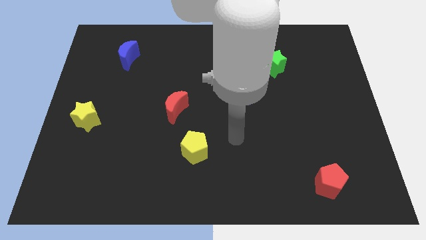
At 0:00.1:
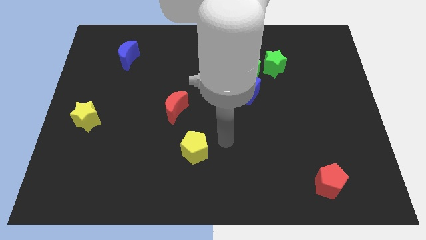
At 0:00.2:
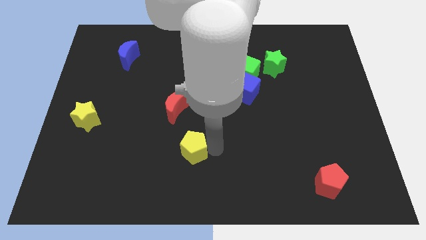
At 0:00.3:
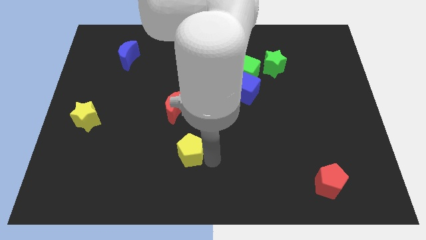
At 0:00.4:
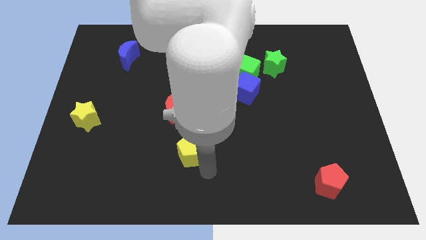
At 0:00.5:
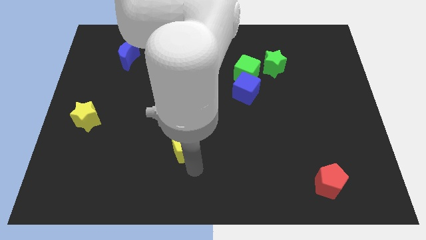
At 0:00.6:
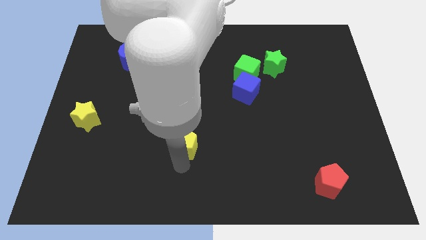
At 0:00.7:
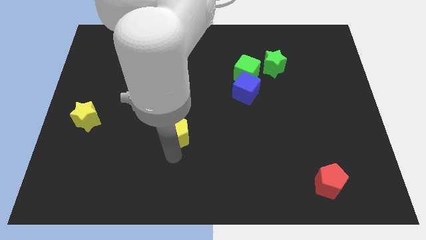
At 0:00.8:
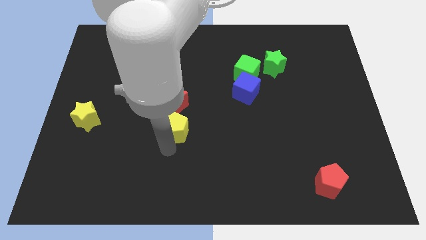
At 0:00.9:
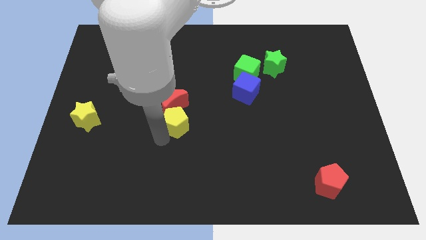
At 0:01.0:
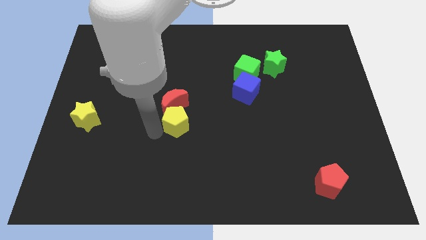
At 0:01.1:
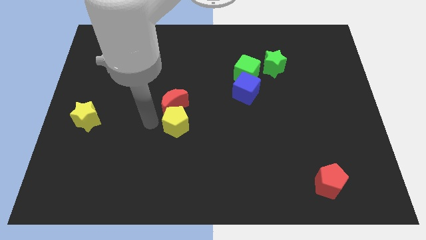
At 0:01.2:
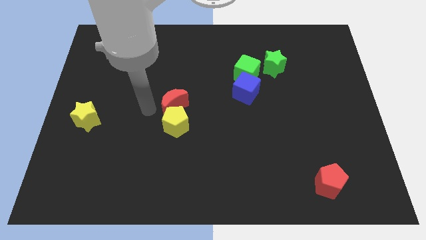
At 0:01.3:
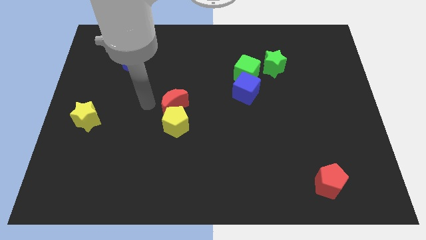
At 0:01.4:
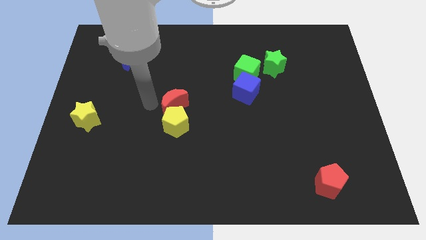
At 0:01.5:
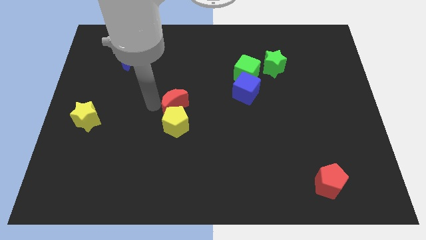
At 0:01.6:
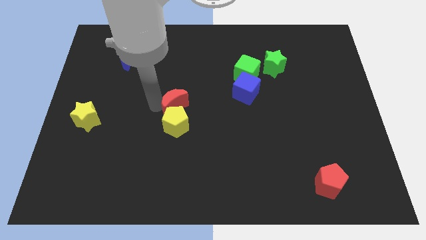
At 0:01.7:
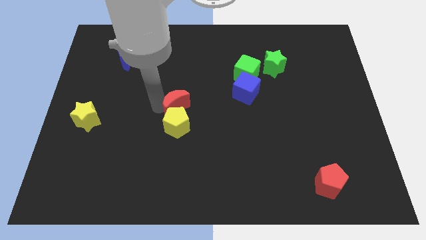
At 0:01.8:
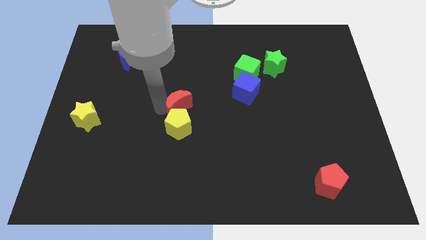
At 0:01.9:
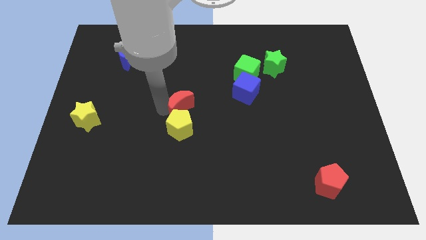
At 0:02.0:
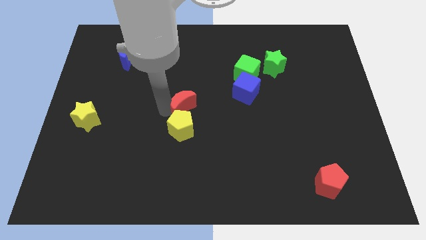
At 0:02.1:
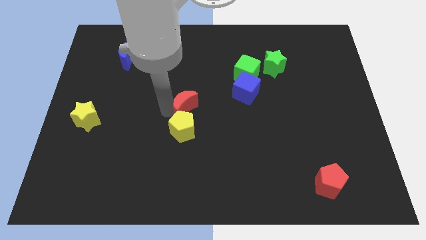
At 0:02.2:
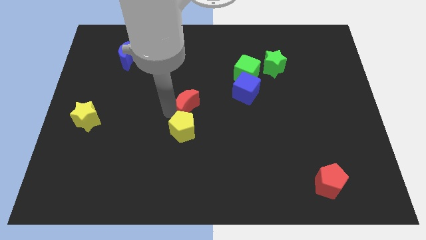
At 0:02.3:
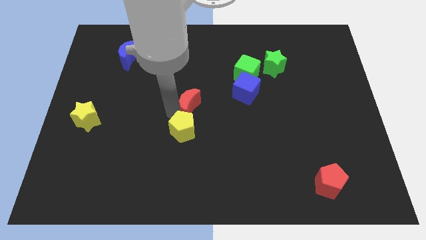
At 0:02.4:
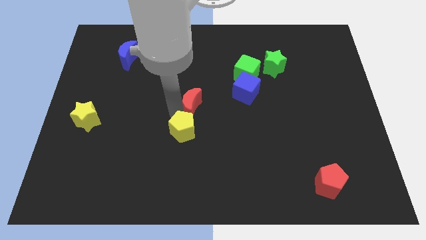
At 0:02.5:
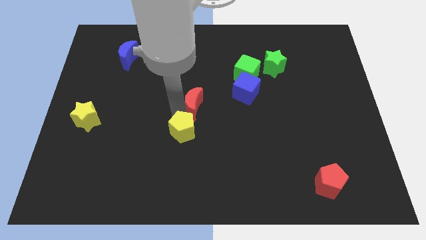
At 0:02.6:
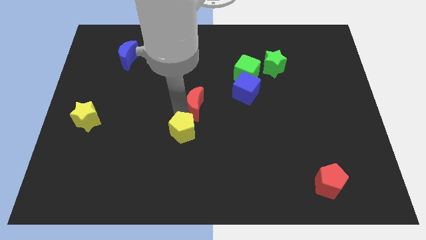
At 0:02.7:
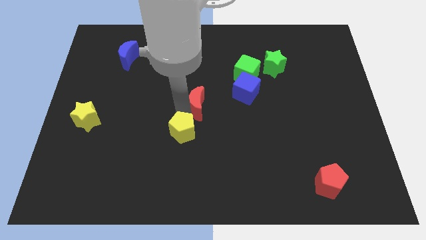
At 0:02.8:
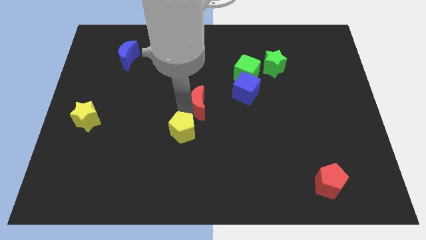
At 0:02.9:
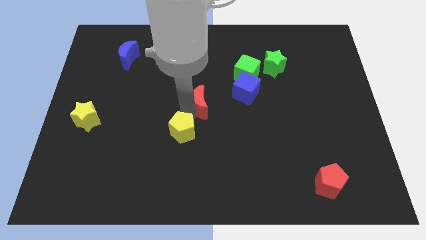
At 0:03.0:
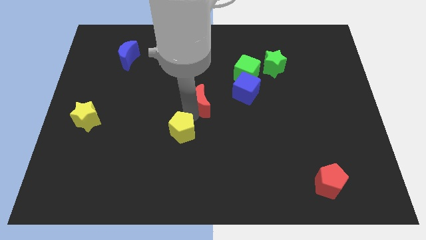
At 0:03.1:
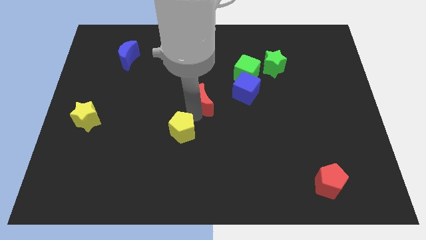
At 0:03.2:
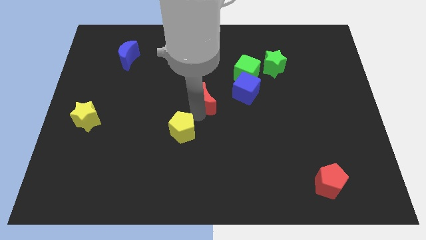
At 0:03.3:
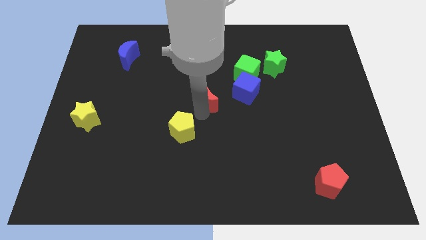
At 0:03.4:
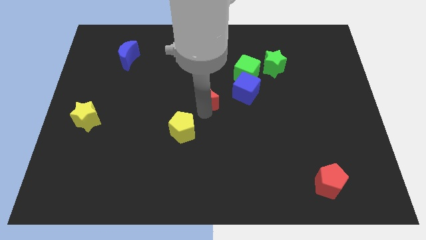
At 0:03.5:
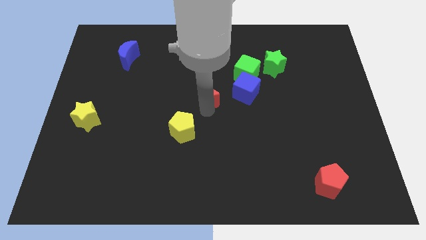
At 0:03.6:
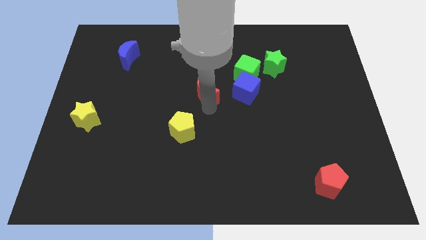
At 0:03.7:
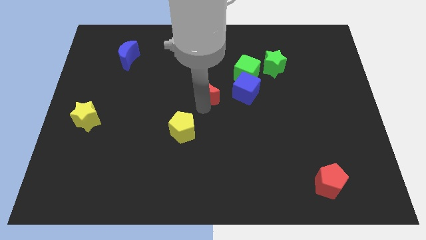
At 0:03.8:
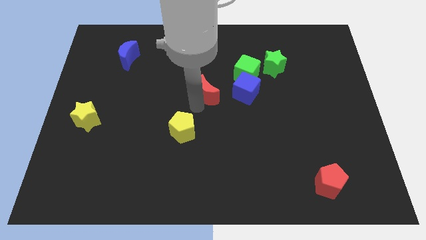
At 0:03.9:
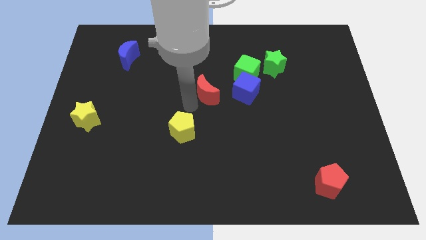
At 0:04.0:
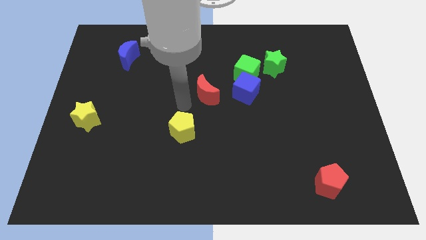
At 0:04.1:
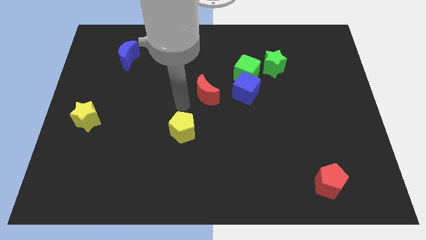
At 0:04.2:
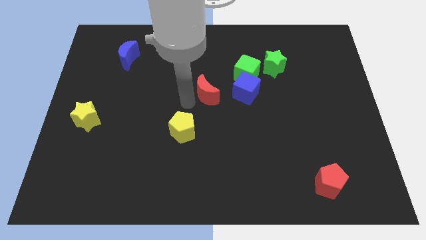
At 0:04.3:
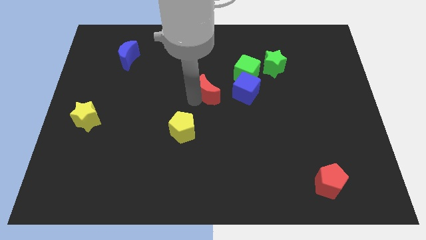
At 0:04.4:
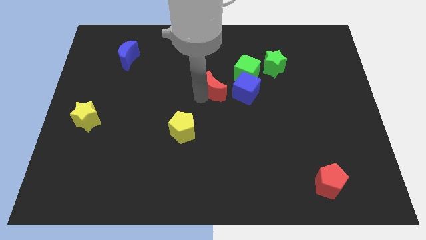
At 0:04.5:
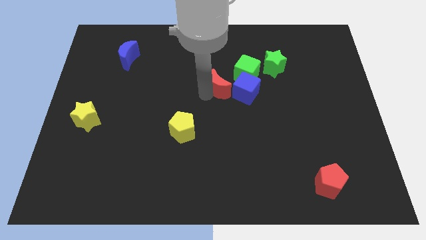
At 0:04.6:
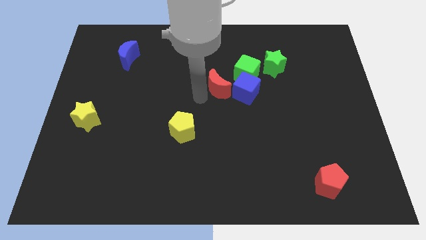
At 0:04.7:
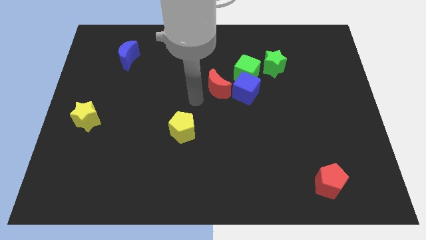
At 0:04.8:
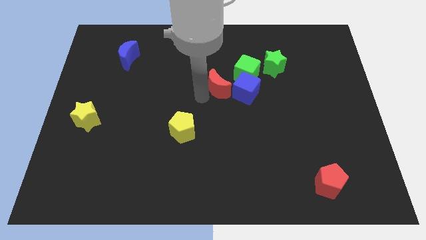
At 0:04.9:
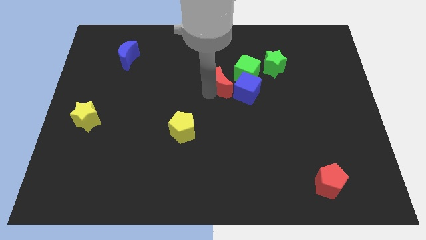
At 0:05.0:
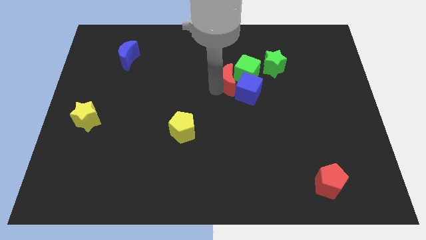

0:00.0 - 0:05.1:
put the red moon towards the green cube

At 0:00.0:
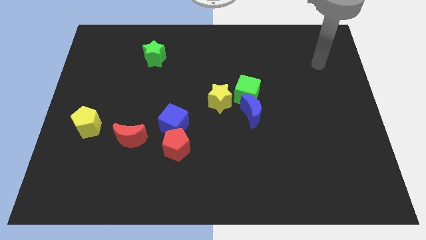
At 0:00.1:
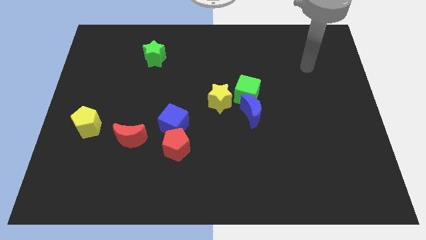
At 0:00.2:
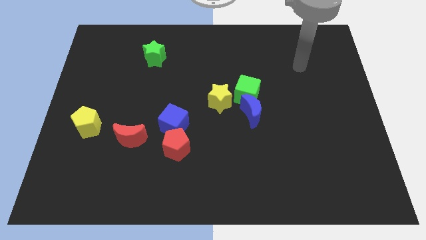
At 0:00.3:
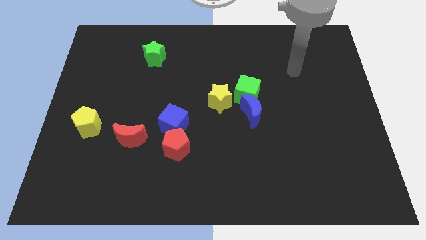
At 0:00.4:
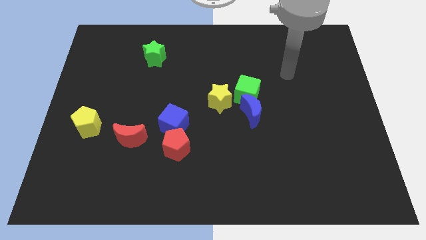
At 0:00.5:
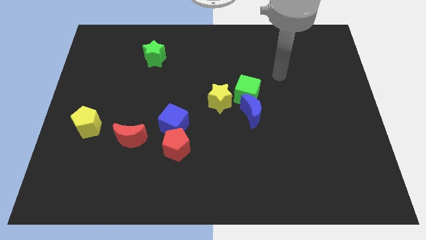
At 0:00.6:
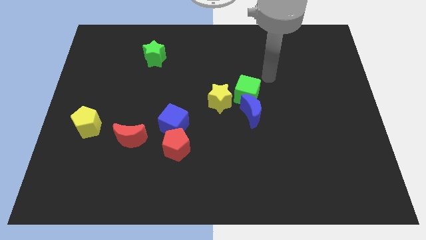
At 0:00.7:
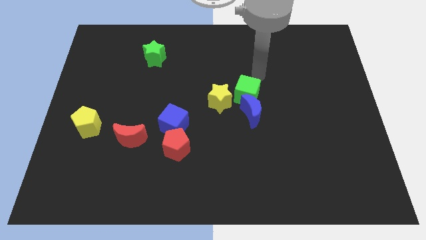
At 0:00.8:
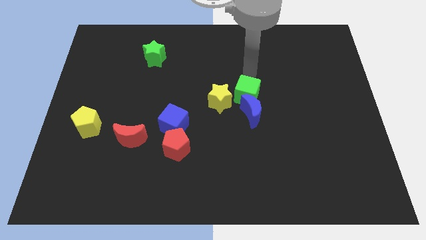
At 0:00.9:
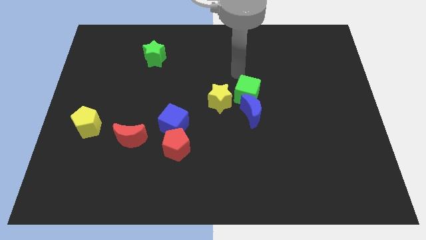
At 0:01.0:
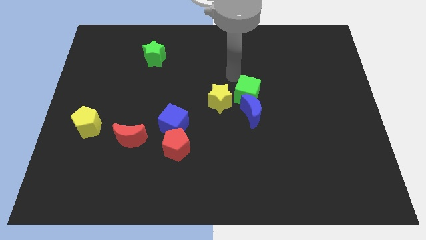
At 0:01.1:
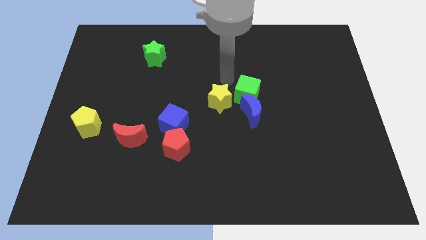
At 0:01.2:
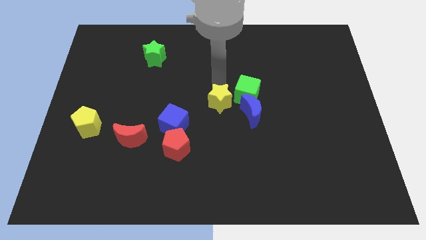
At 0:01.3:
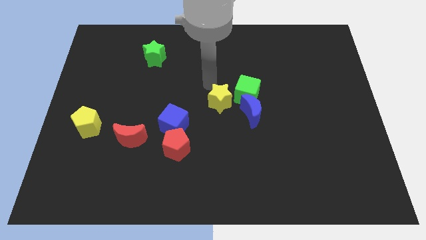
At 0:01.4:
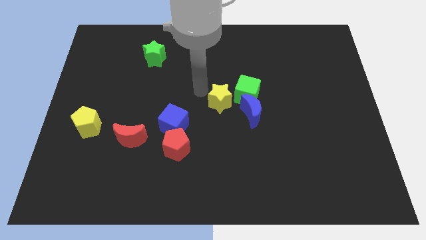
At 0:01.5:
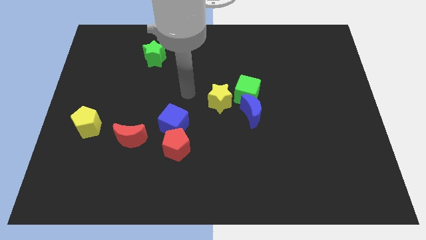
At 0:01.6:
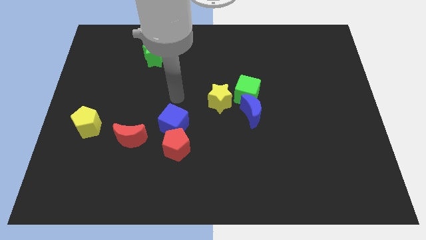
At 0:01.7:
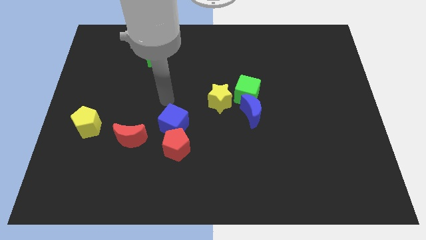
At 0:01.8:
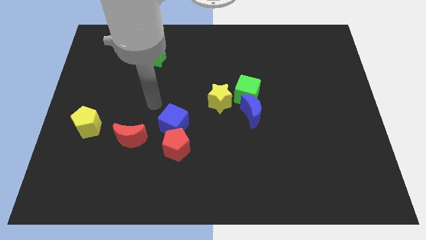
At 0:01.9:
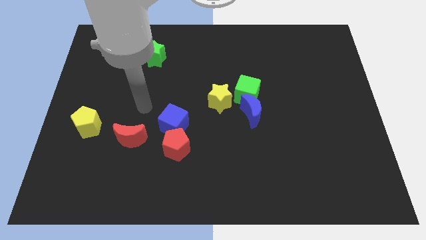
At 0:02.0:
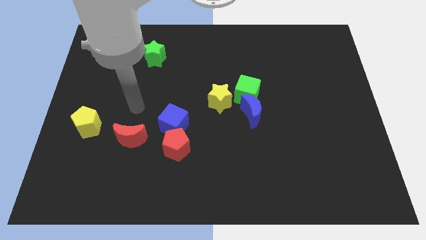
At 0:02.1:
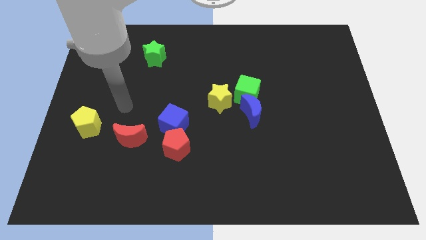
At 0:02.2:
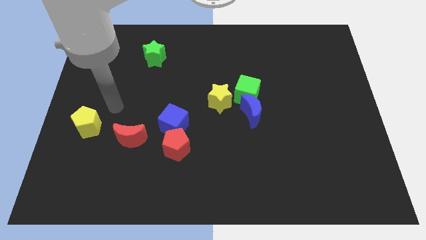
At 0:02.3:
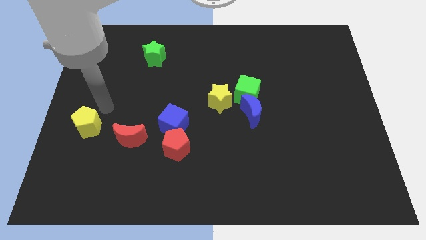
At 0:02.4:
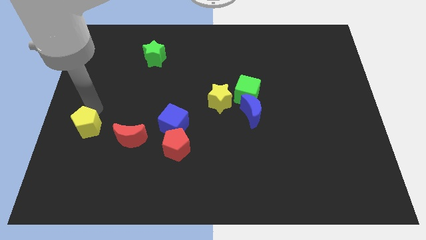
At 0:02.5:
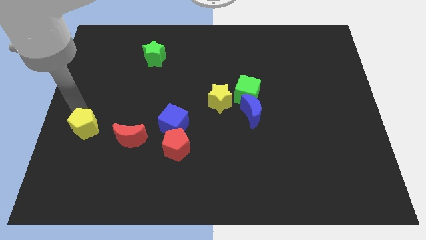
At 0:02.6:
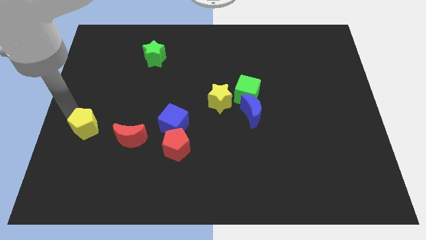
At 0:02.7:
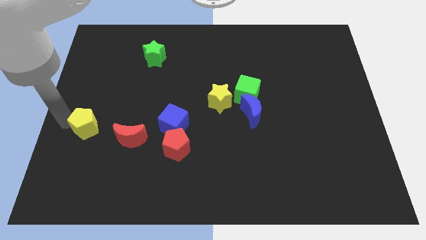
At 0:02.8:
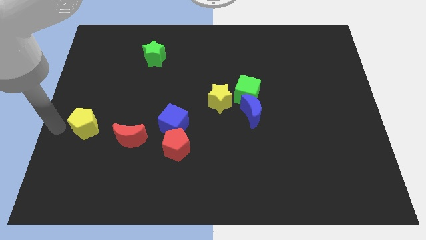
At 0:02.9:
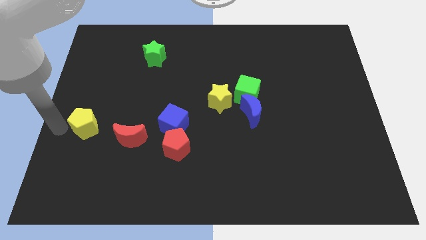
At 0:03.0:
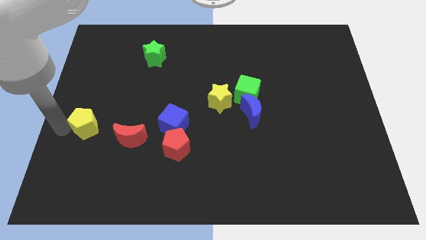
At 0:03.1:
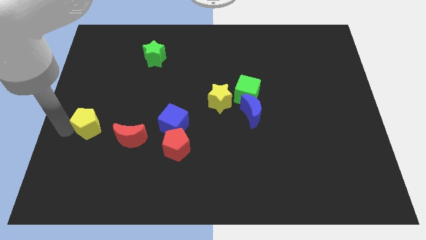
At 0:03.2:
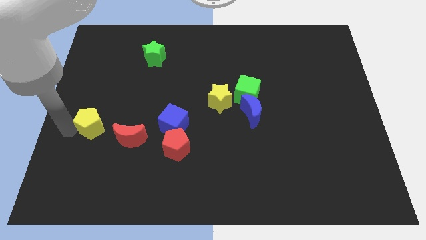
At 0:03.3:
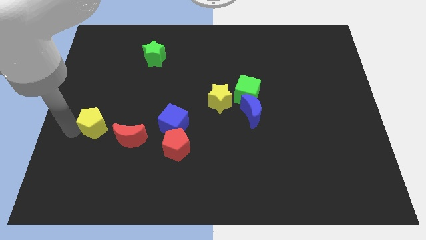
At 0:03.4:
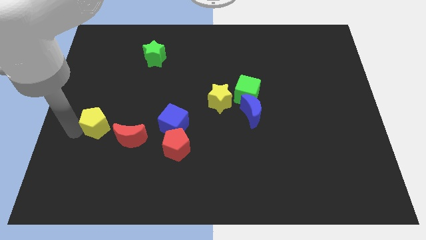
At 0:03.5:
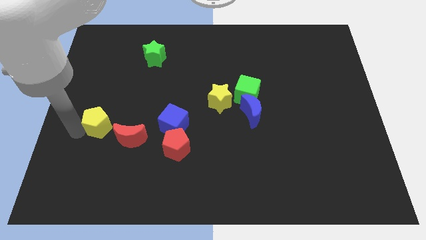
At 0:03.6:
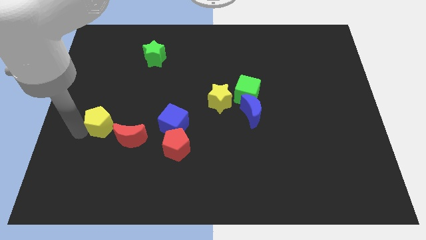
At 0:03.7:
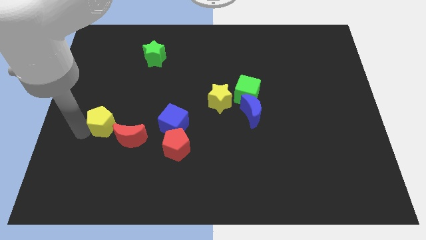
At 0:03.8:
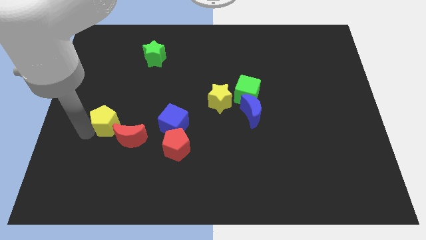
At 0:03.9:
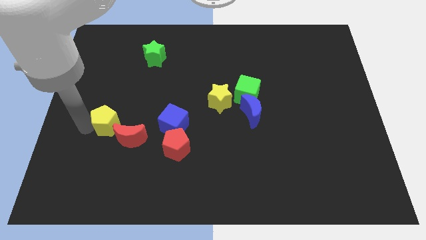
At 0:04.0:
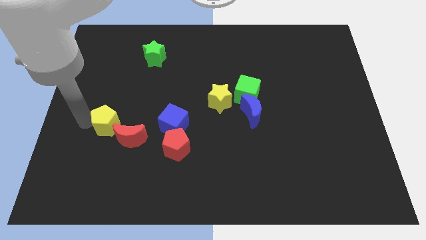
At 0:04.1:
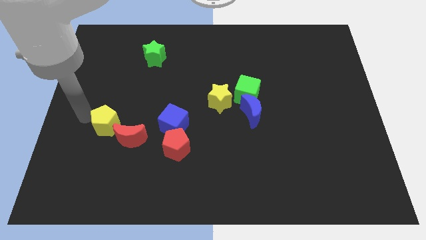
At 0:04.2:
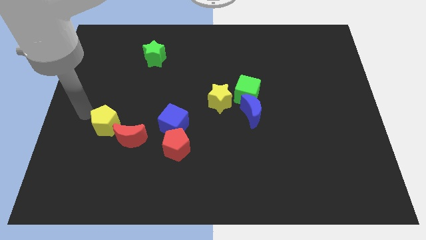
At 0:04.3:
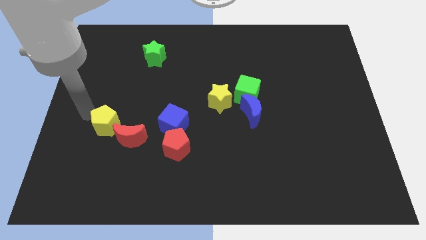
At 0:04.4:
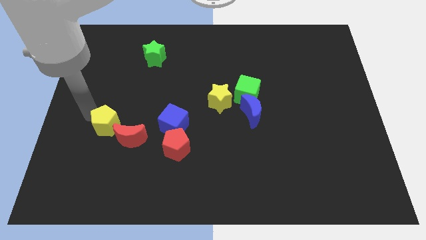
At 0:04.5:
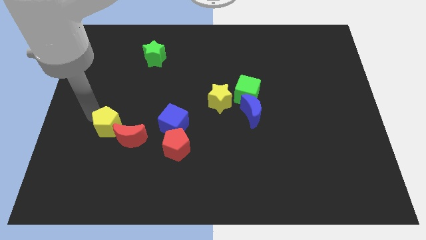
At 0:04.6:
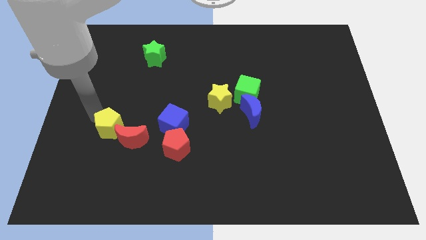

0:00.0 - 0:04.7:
slide the yellow pentagon close to the red moon
